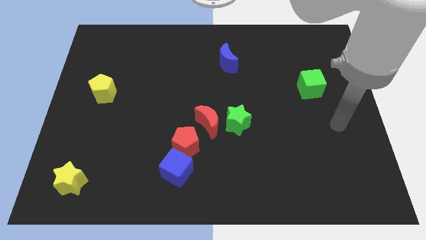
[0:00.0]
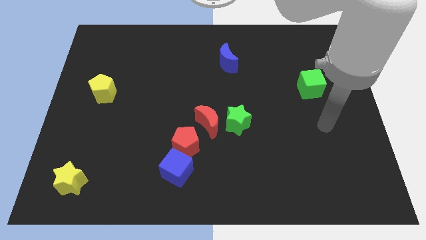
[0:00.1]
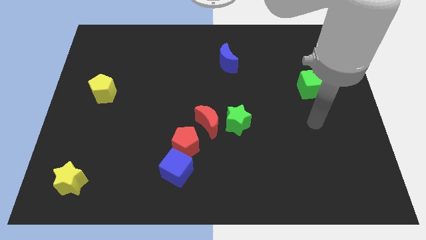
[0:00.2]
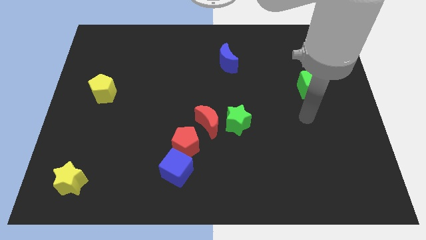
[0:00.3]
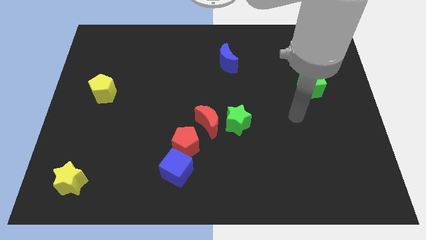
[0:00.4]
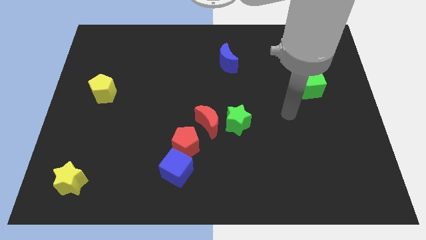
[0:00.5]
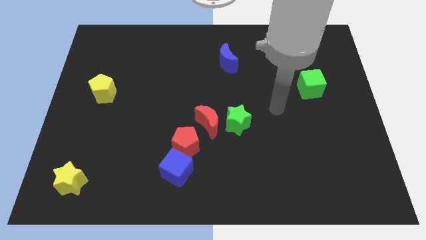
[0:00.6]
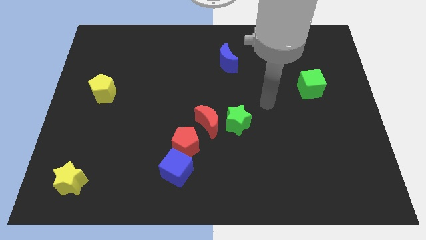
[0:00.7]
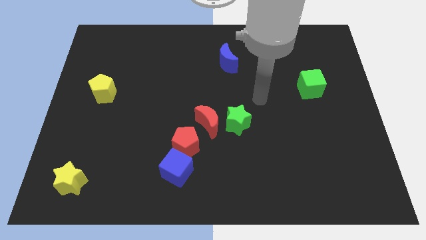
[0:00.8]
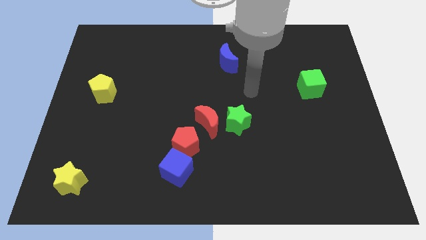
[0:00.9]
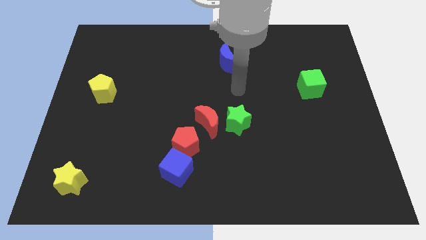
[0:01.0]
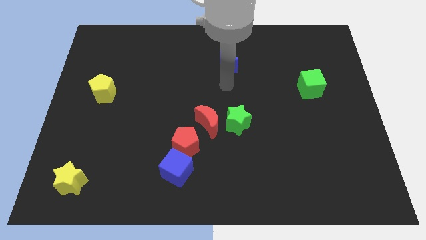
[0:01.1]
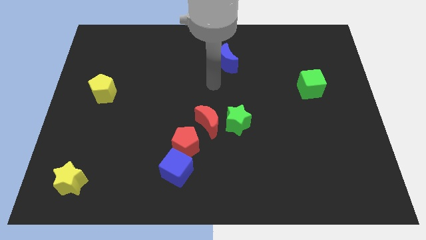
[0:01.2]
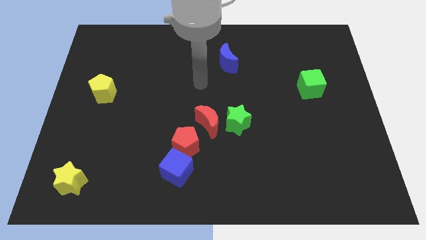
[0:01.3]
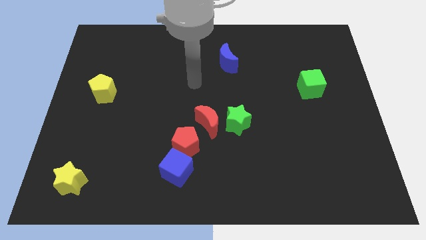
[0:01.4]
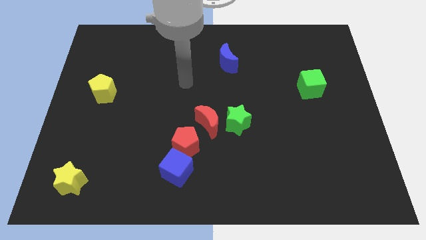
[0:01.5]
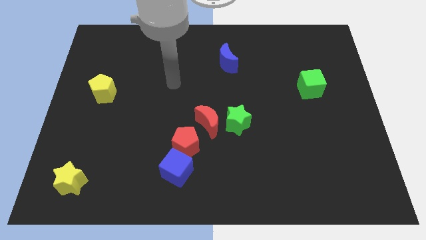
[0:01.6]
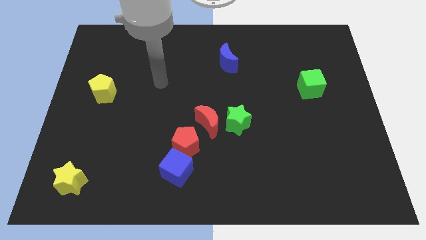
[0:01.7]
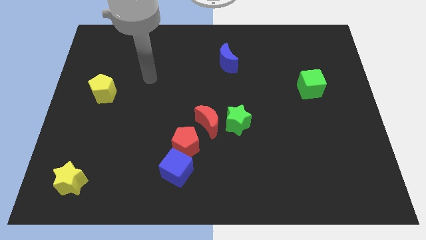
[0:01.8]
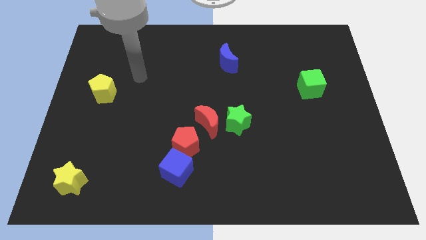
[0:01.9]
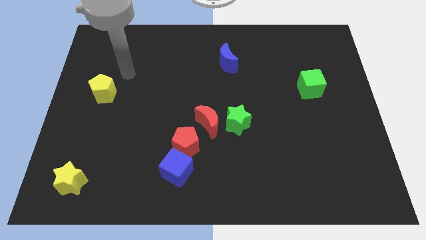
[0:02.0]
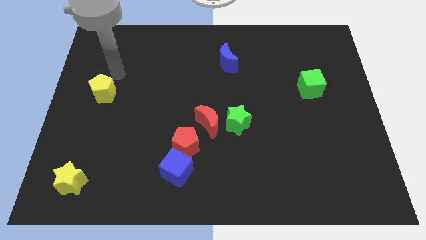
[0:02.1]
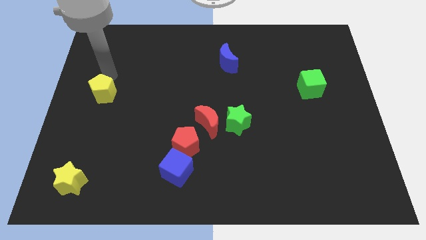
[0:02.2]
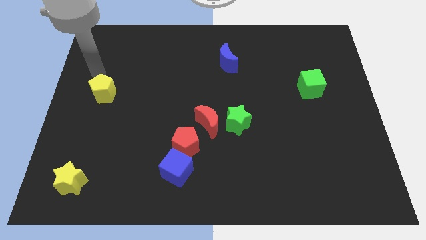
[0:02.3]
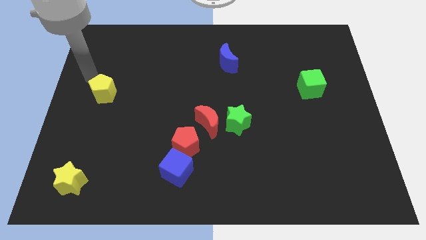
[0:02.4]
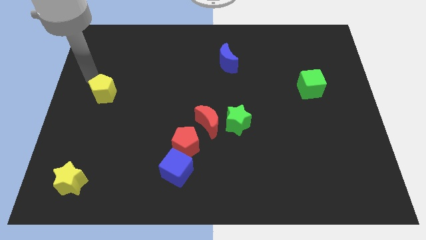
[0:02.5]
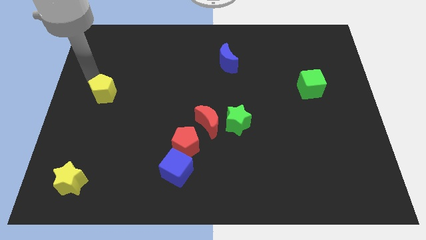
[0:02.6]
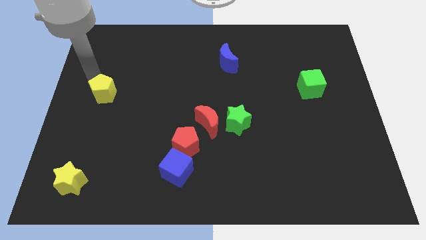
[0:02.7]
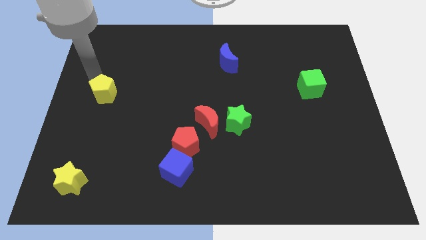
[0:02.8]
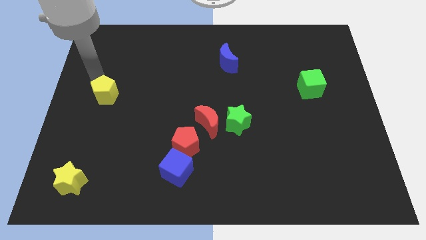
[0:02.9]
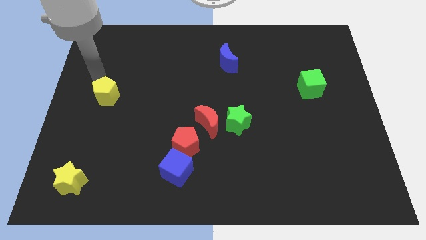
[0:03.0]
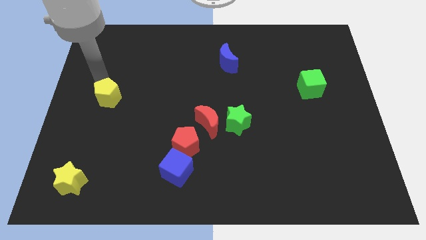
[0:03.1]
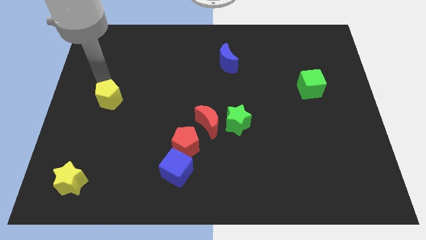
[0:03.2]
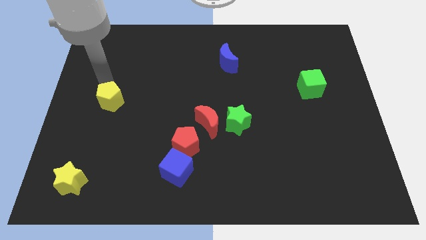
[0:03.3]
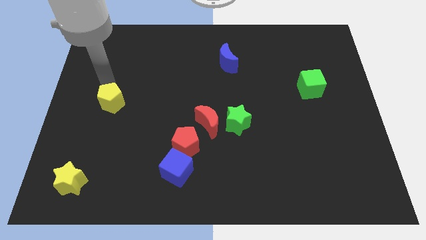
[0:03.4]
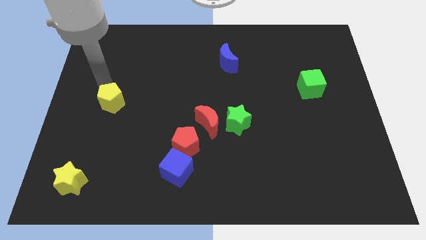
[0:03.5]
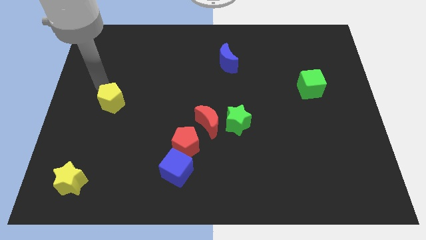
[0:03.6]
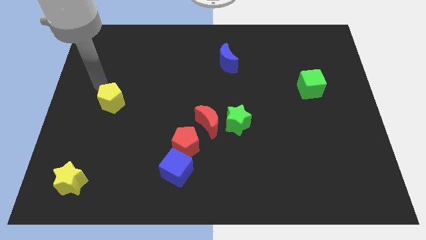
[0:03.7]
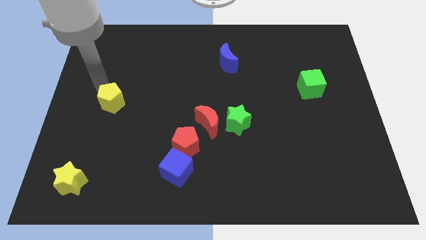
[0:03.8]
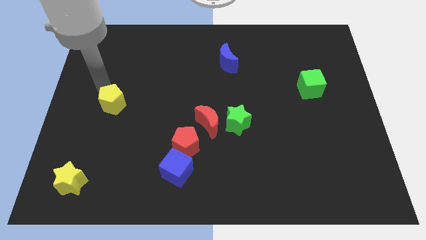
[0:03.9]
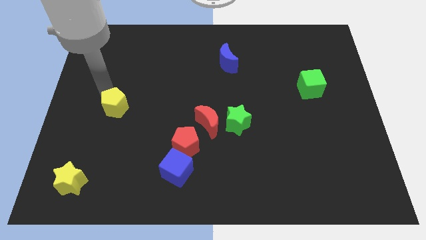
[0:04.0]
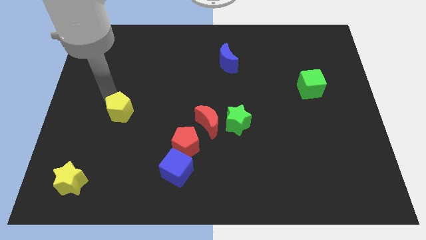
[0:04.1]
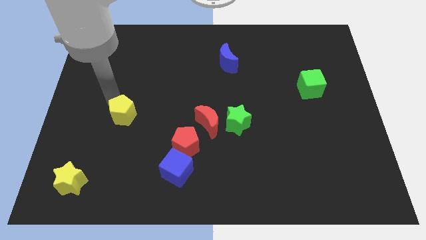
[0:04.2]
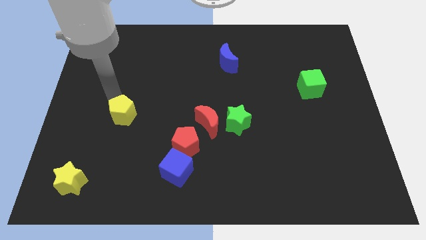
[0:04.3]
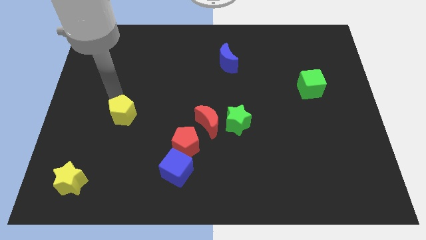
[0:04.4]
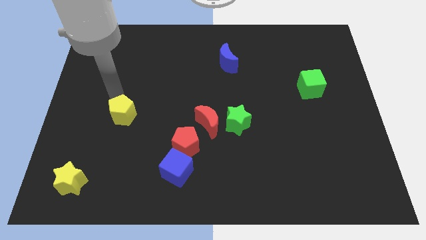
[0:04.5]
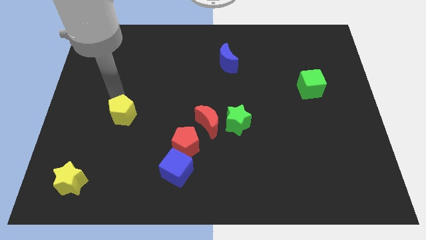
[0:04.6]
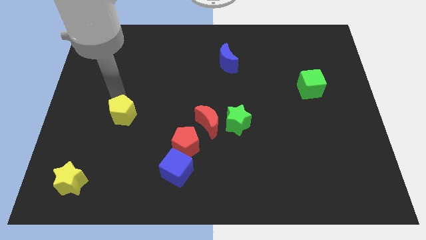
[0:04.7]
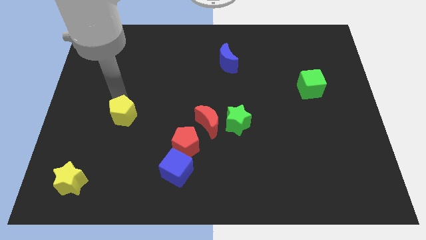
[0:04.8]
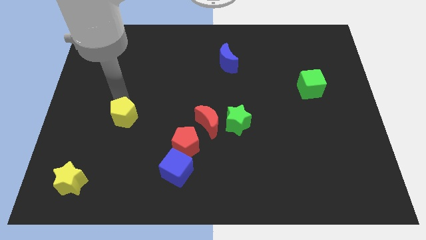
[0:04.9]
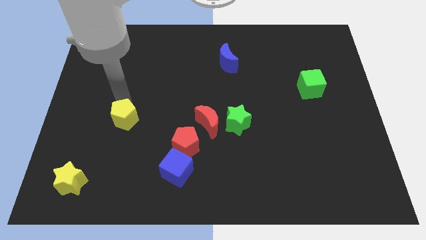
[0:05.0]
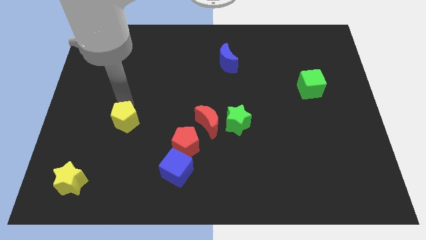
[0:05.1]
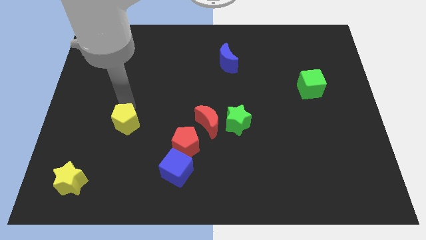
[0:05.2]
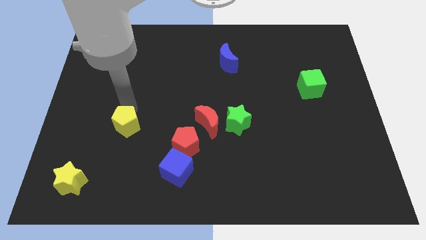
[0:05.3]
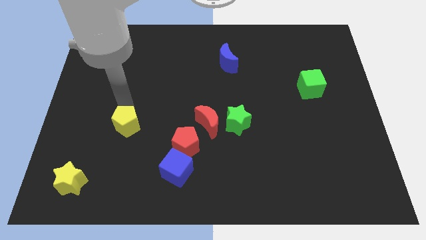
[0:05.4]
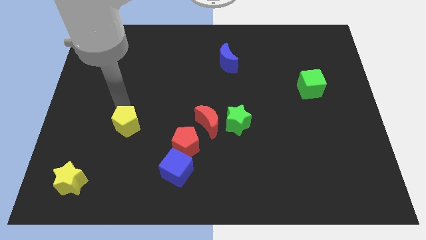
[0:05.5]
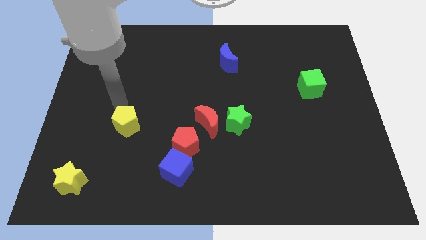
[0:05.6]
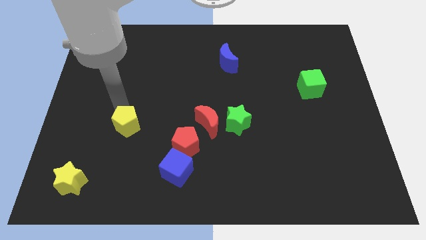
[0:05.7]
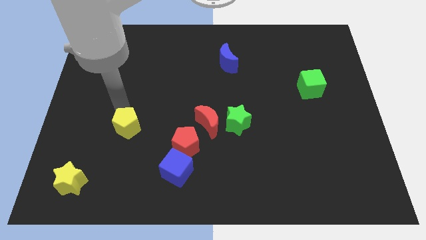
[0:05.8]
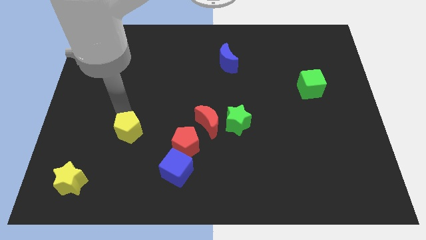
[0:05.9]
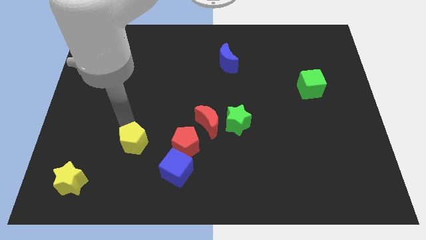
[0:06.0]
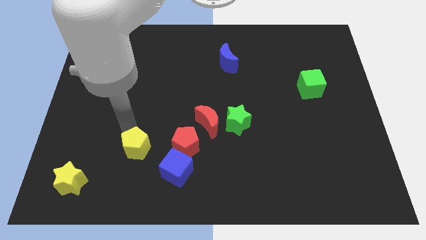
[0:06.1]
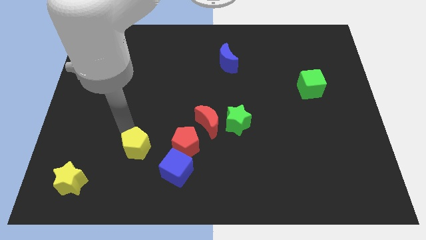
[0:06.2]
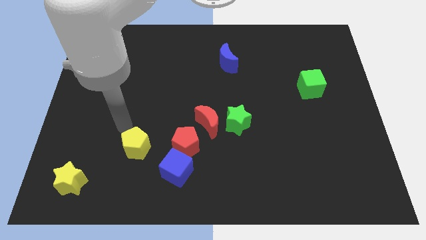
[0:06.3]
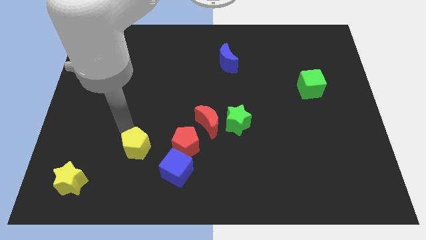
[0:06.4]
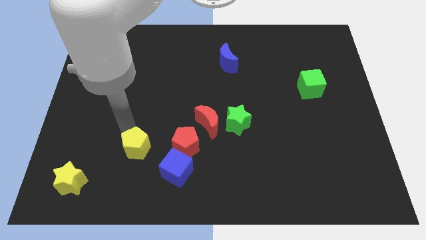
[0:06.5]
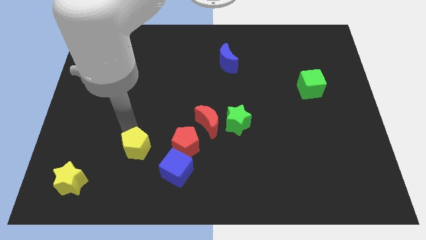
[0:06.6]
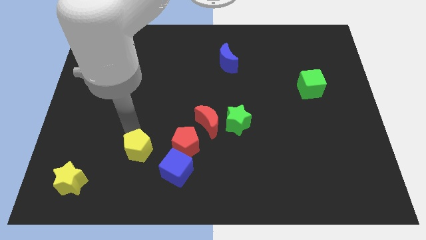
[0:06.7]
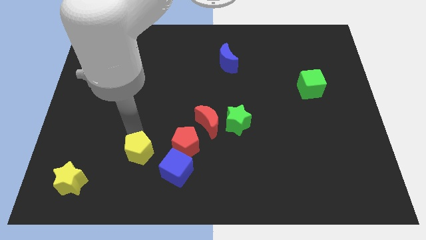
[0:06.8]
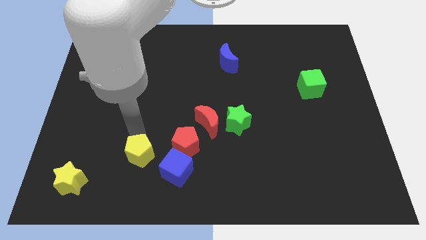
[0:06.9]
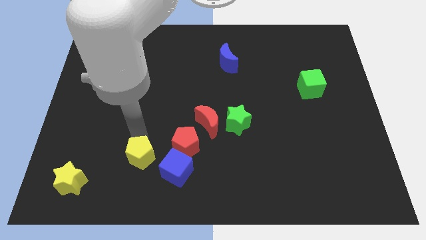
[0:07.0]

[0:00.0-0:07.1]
push the yellow pentagon down and right

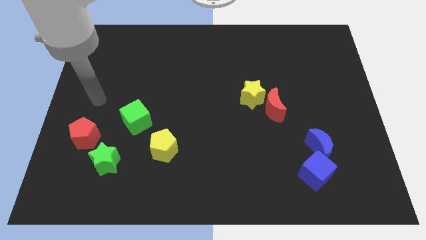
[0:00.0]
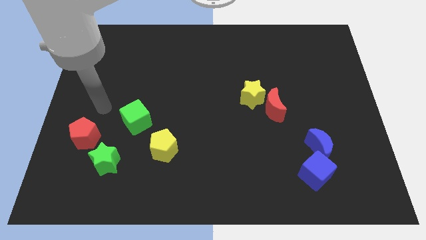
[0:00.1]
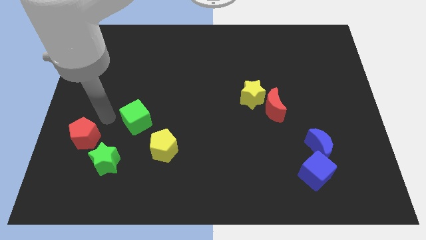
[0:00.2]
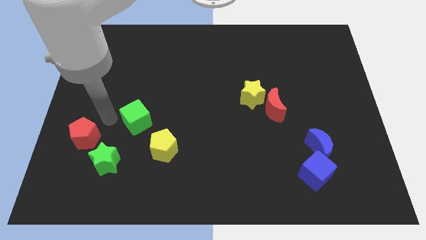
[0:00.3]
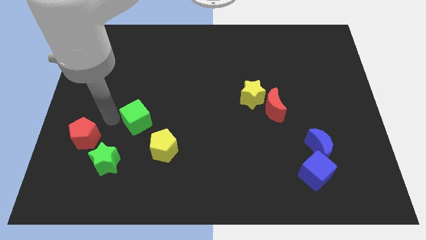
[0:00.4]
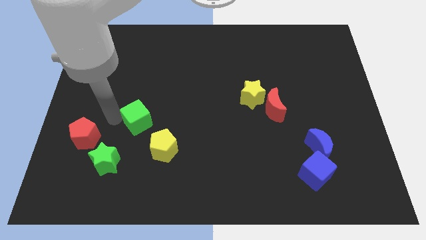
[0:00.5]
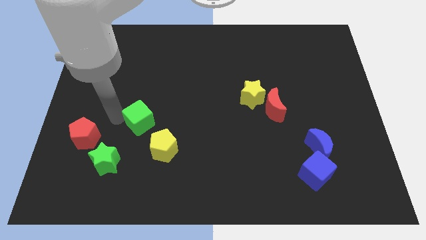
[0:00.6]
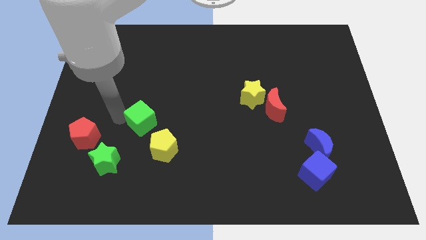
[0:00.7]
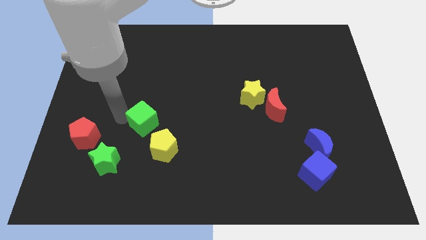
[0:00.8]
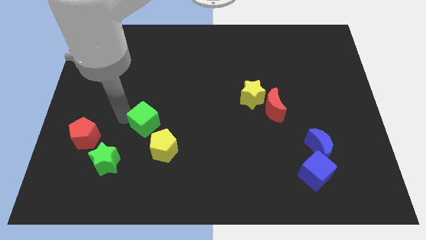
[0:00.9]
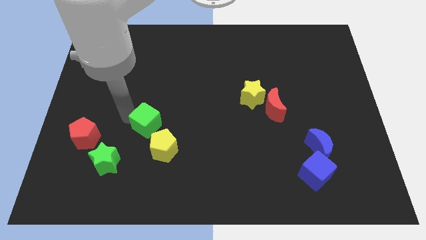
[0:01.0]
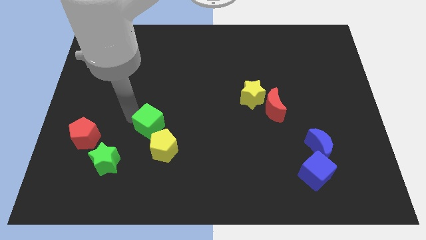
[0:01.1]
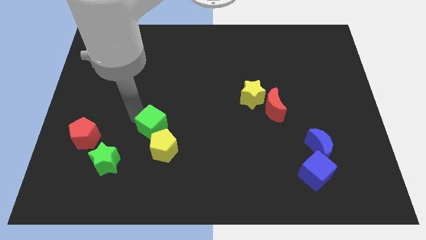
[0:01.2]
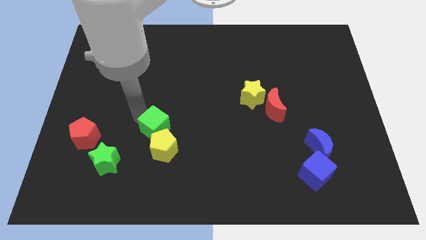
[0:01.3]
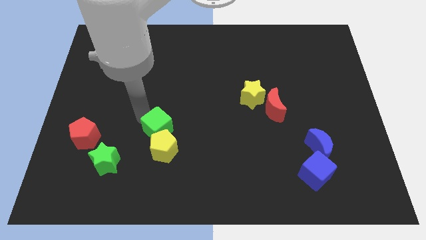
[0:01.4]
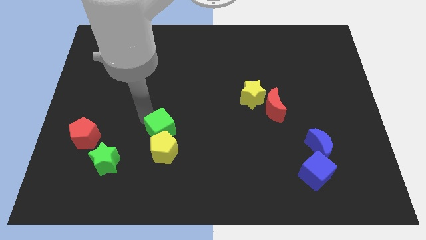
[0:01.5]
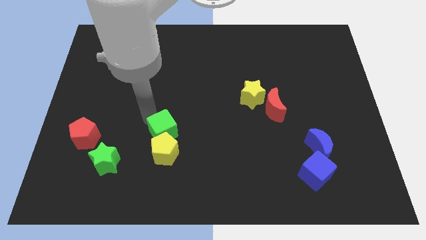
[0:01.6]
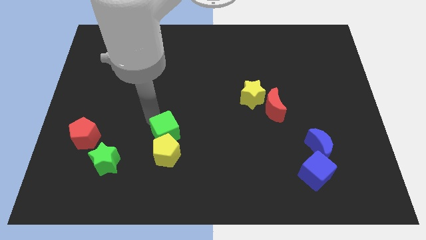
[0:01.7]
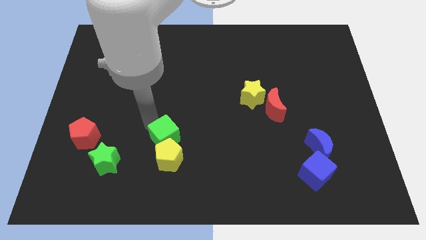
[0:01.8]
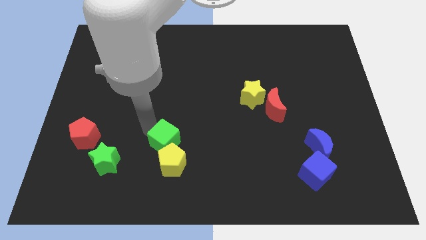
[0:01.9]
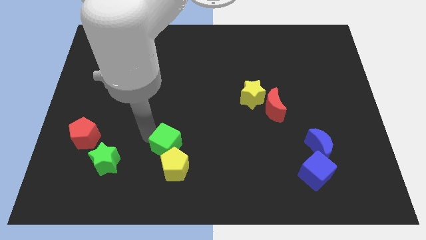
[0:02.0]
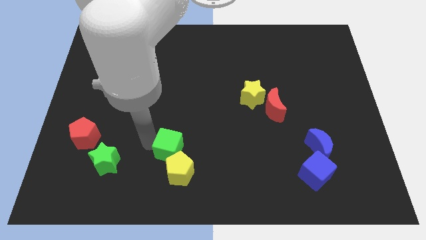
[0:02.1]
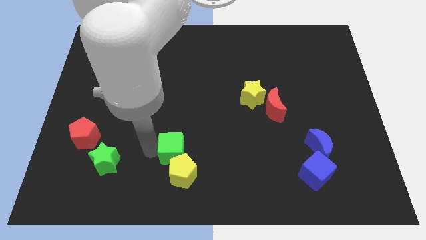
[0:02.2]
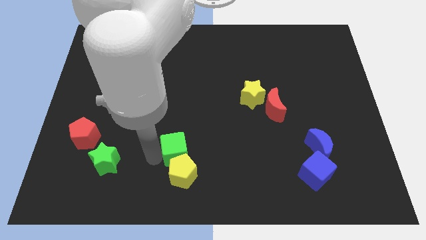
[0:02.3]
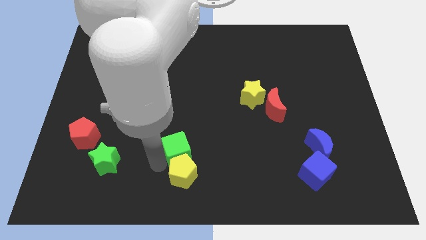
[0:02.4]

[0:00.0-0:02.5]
slightly move the green cube to the right
